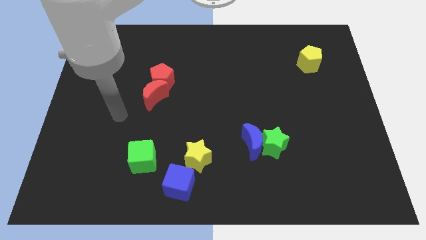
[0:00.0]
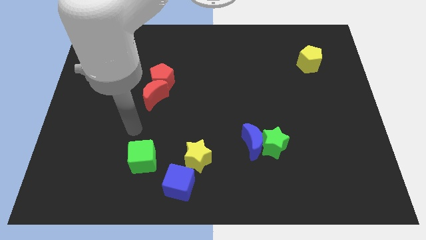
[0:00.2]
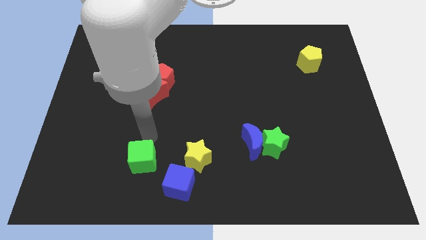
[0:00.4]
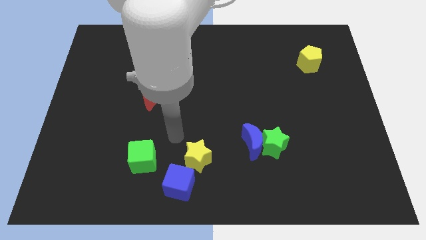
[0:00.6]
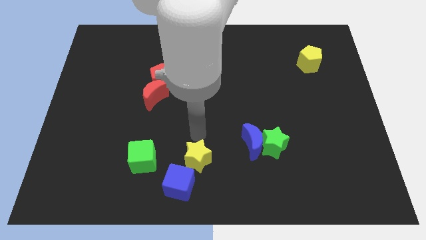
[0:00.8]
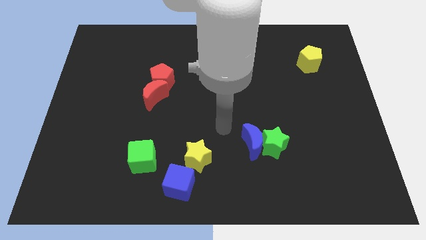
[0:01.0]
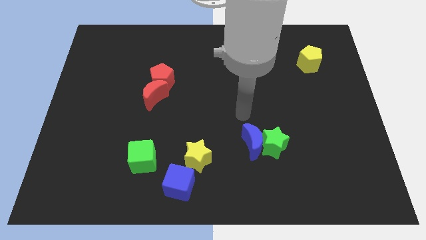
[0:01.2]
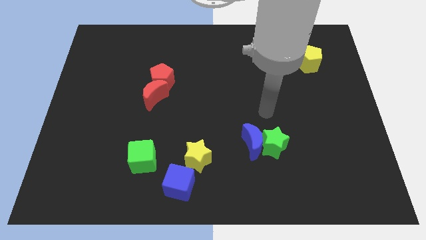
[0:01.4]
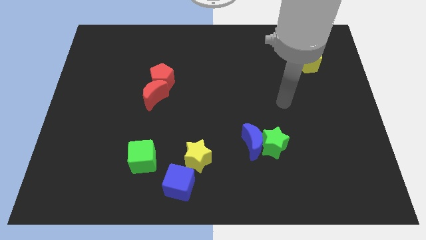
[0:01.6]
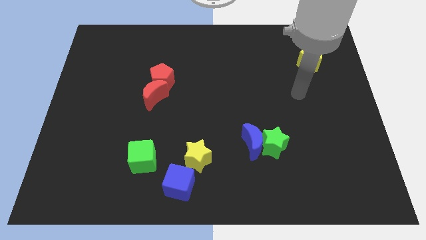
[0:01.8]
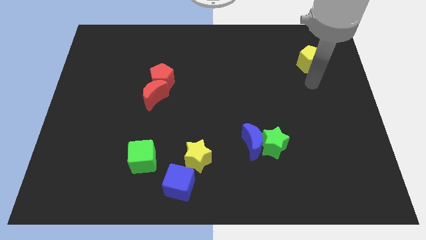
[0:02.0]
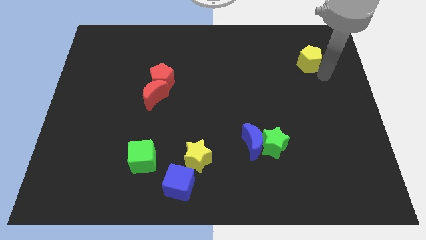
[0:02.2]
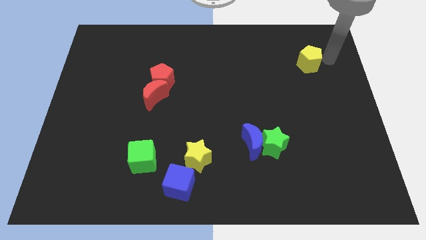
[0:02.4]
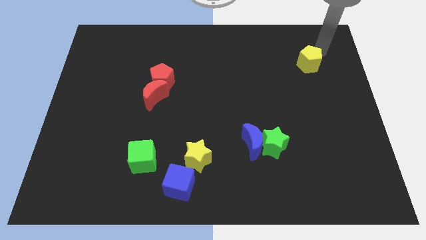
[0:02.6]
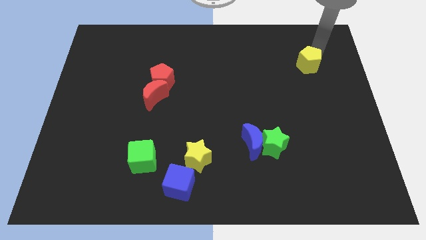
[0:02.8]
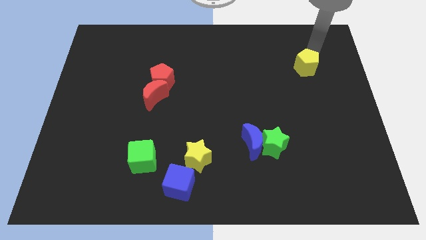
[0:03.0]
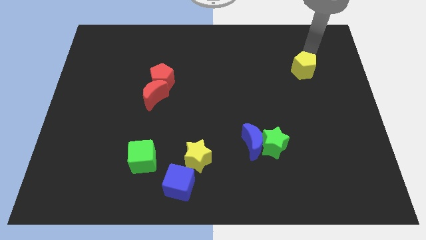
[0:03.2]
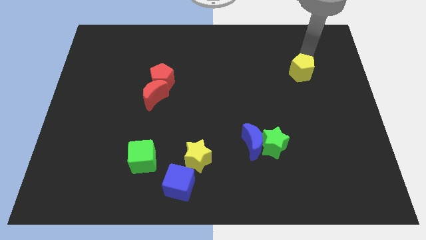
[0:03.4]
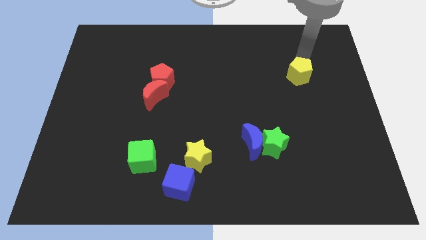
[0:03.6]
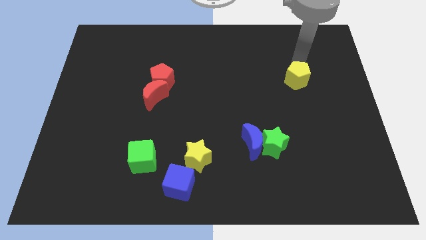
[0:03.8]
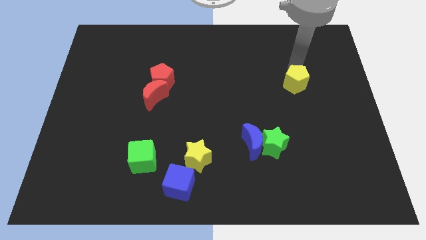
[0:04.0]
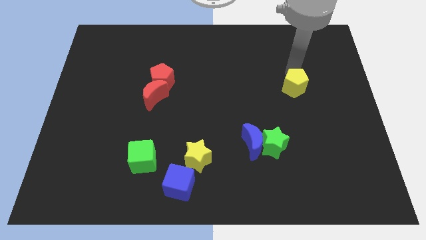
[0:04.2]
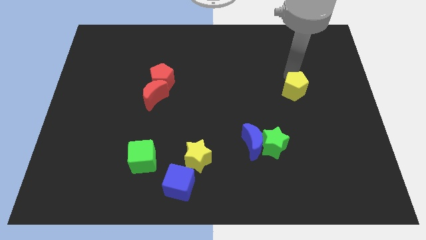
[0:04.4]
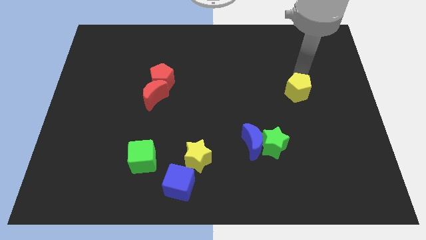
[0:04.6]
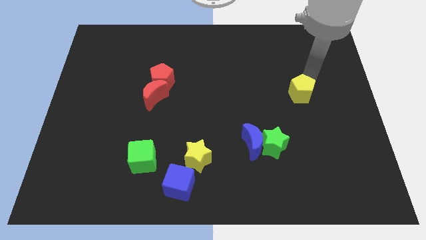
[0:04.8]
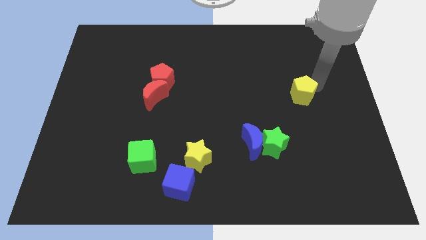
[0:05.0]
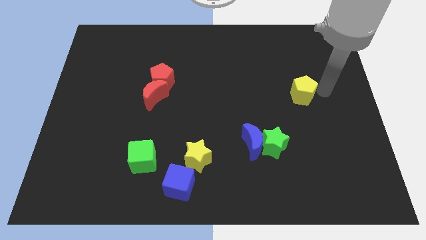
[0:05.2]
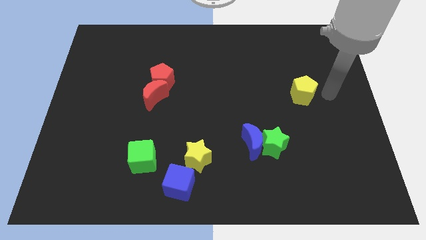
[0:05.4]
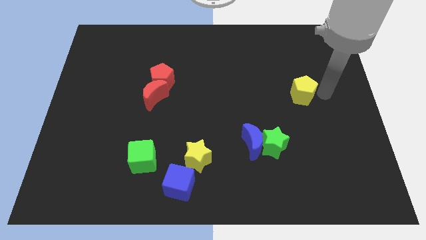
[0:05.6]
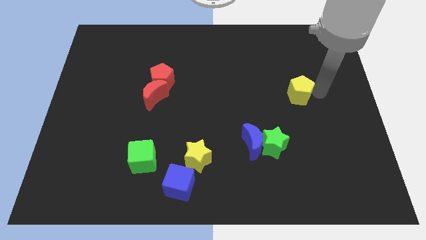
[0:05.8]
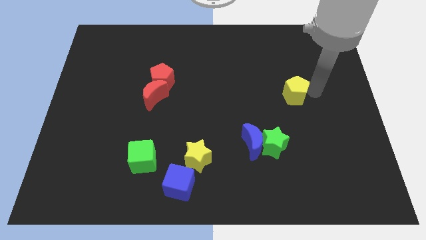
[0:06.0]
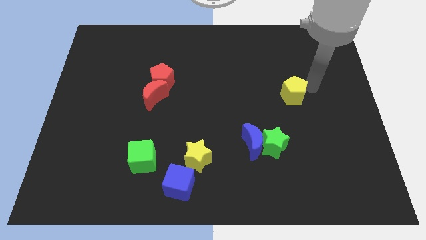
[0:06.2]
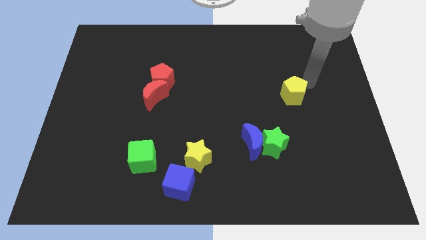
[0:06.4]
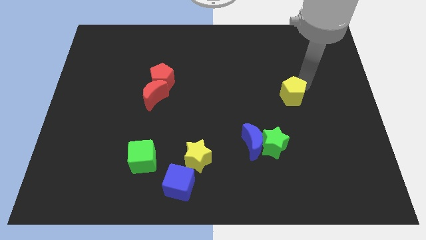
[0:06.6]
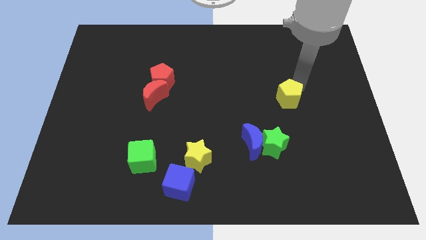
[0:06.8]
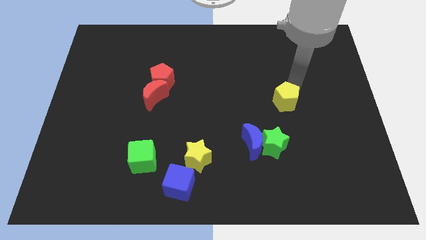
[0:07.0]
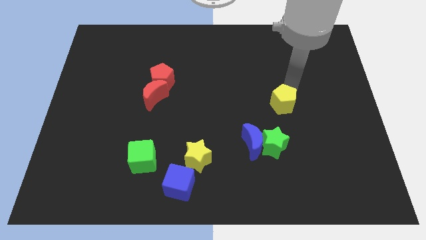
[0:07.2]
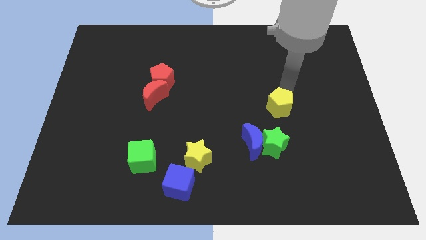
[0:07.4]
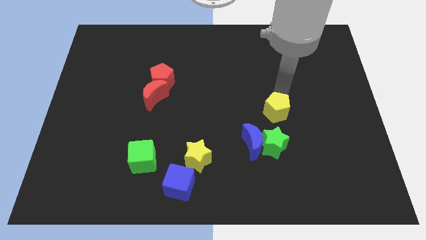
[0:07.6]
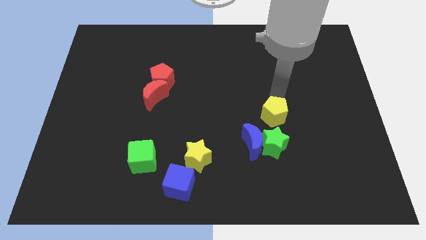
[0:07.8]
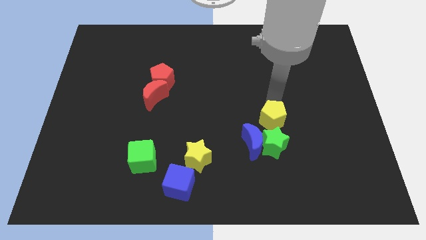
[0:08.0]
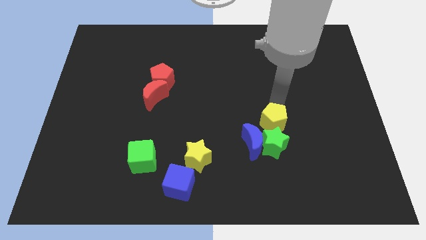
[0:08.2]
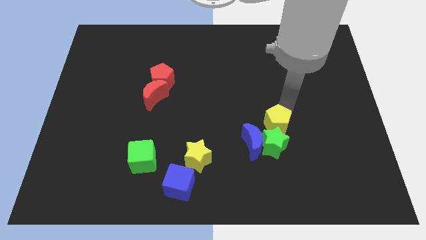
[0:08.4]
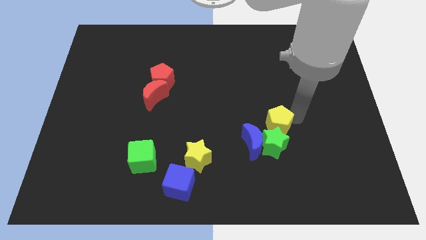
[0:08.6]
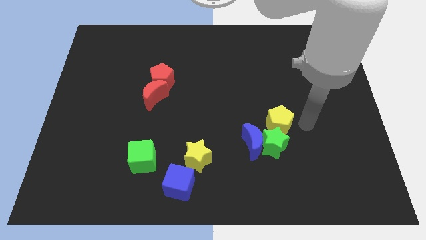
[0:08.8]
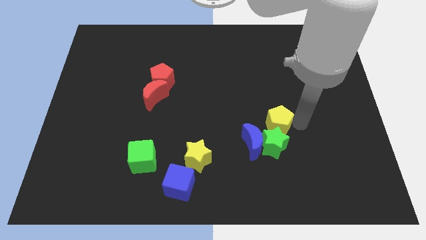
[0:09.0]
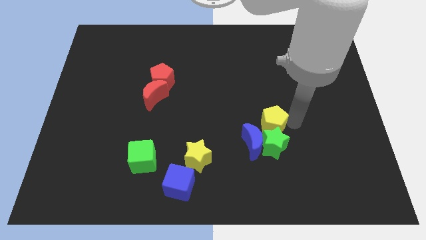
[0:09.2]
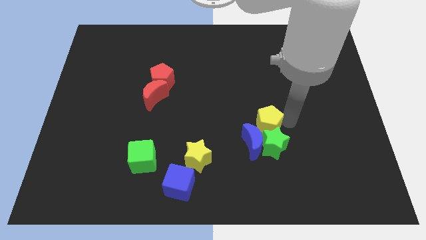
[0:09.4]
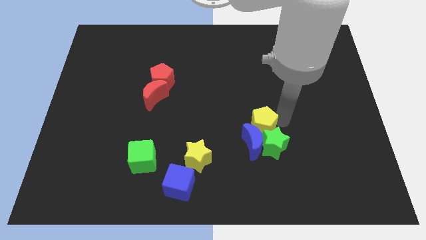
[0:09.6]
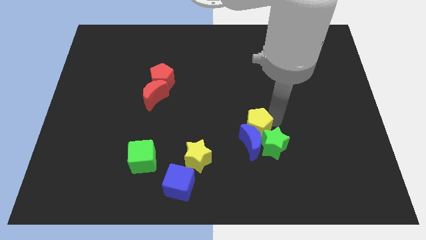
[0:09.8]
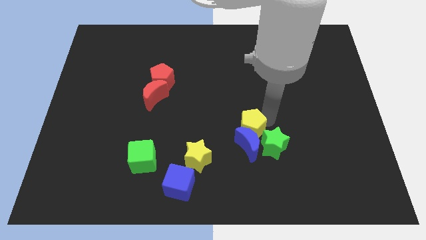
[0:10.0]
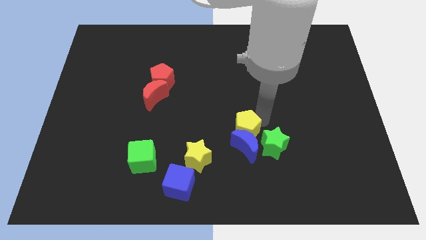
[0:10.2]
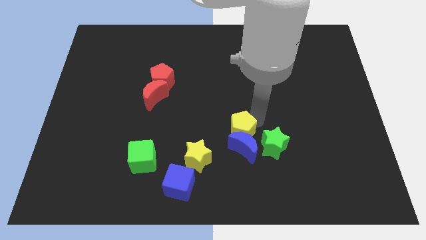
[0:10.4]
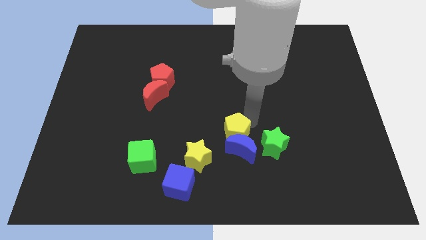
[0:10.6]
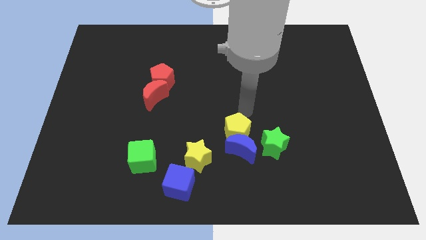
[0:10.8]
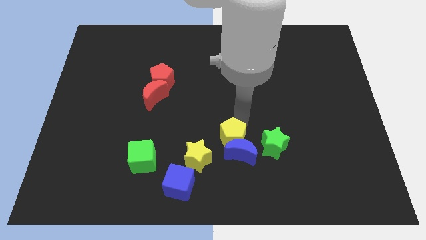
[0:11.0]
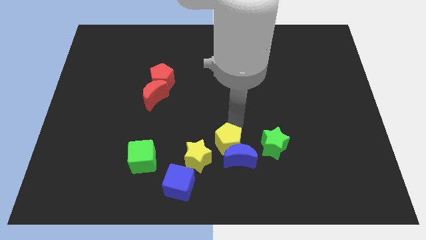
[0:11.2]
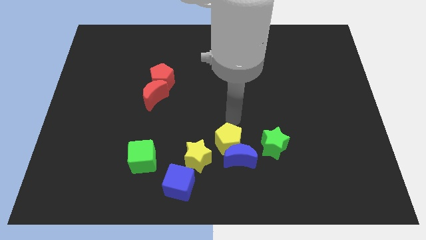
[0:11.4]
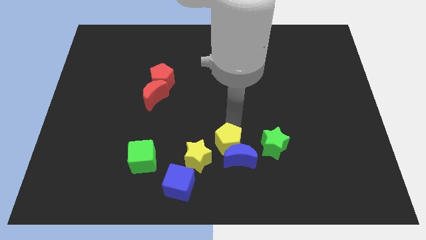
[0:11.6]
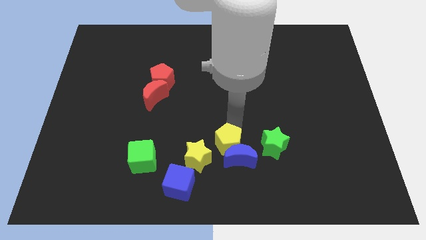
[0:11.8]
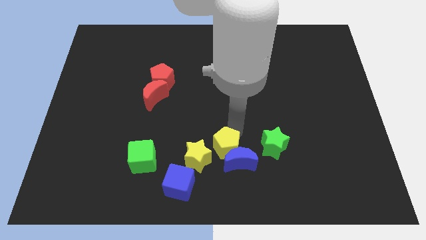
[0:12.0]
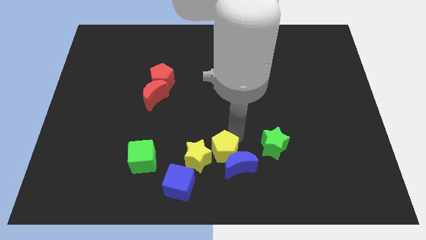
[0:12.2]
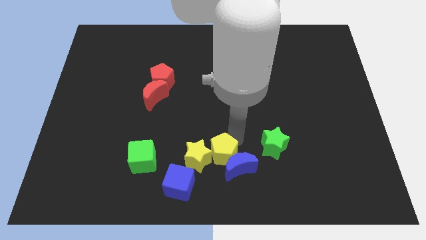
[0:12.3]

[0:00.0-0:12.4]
put the yellow pentagon diagonally down and to the right of the yellow star
